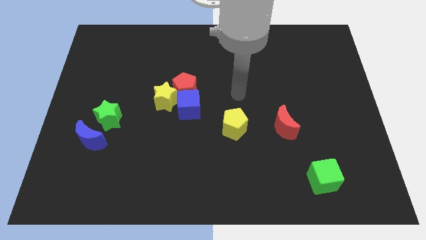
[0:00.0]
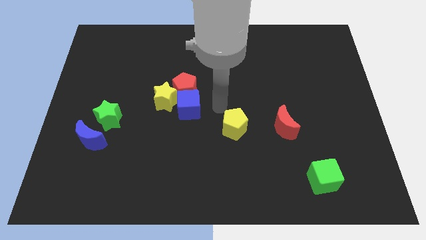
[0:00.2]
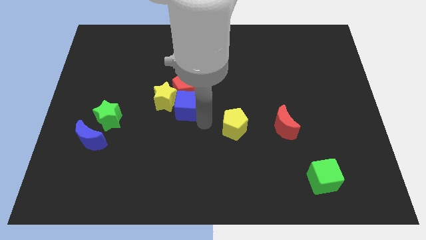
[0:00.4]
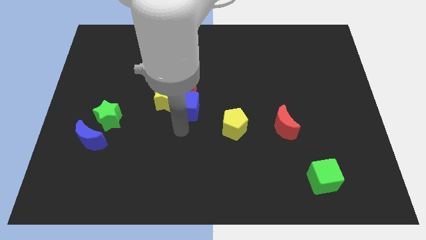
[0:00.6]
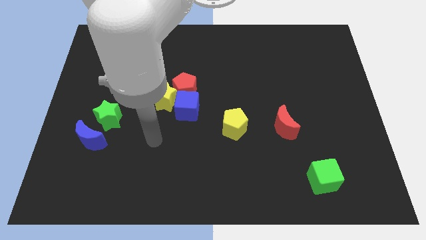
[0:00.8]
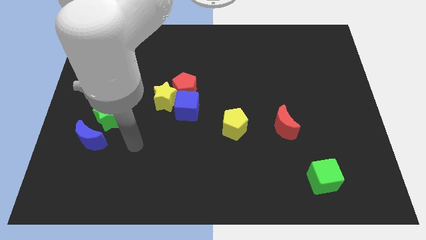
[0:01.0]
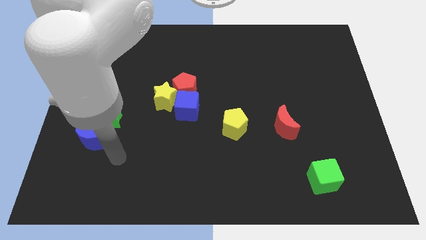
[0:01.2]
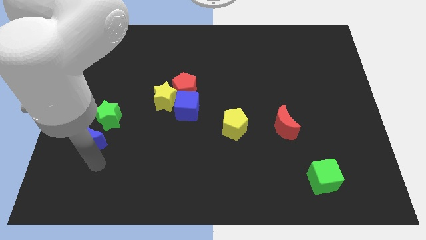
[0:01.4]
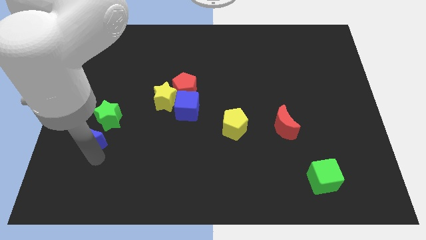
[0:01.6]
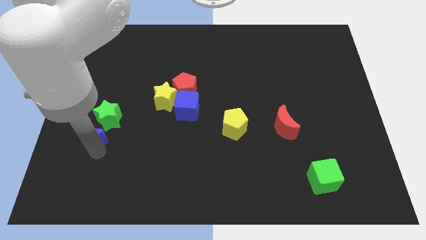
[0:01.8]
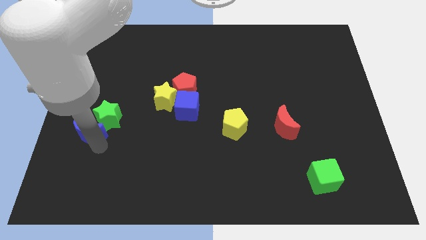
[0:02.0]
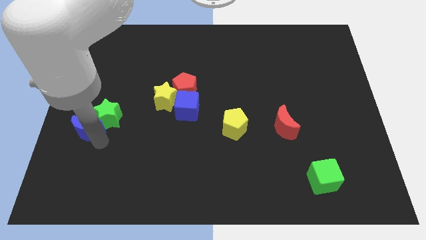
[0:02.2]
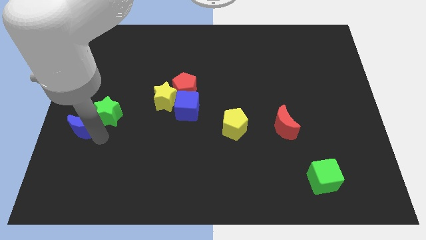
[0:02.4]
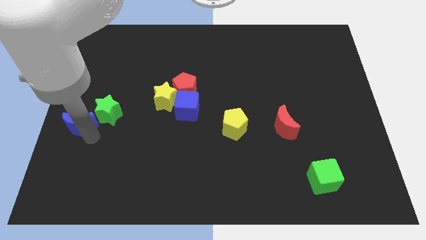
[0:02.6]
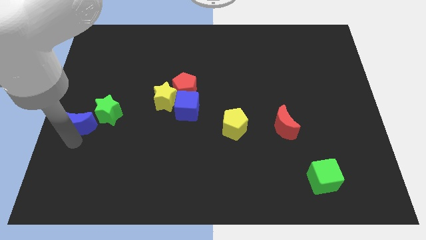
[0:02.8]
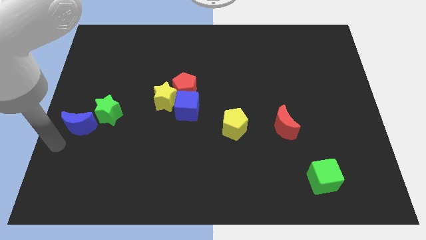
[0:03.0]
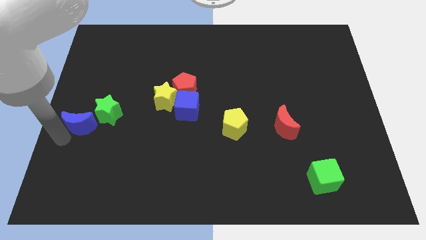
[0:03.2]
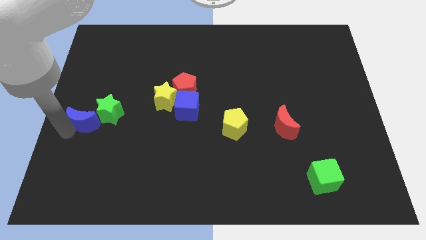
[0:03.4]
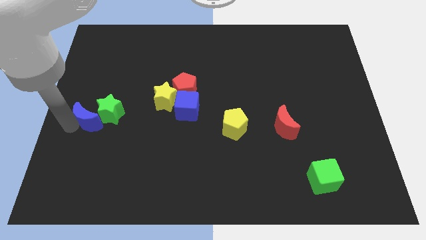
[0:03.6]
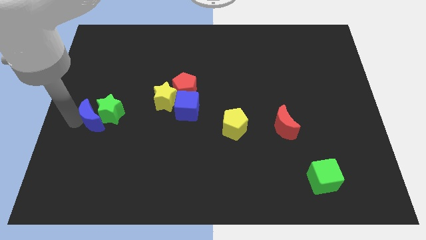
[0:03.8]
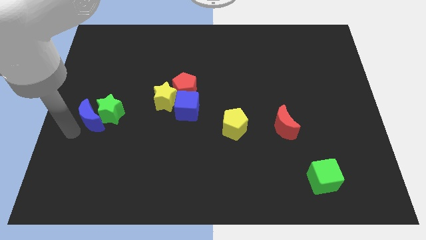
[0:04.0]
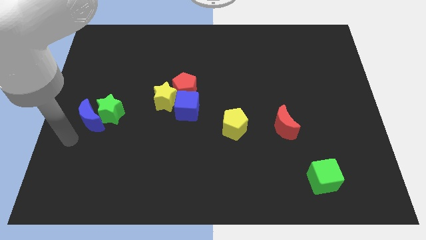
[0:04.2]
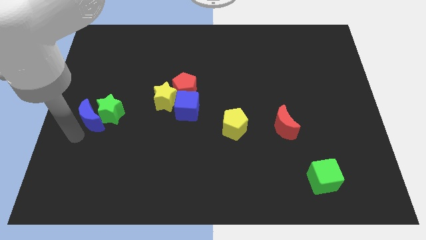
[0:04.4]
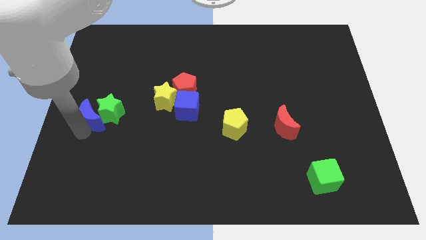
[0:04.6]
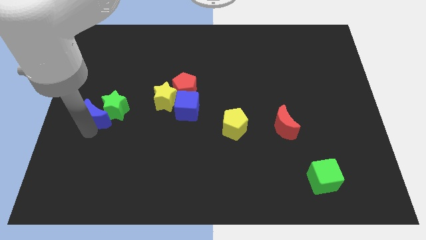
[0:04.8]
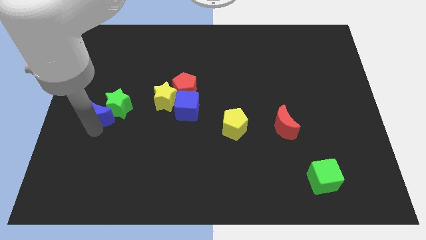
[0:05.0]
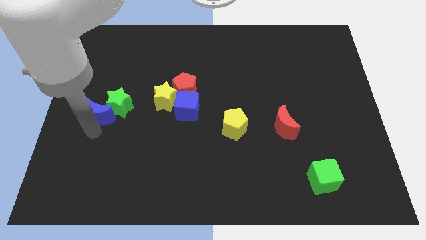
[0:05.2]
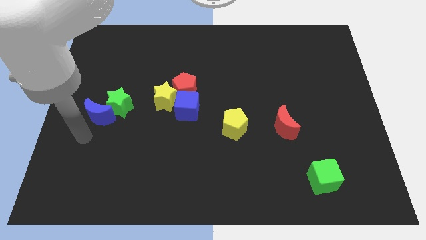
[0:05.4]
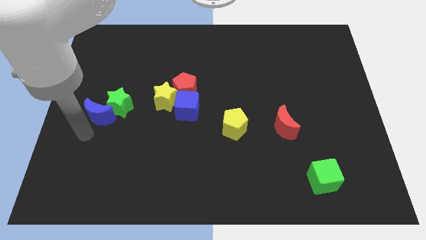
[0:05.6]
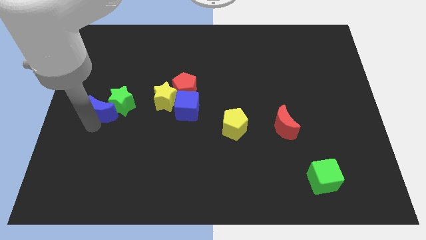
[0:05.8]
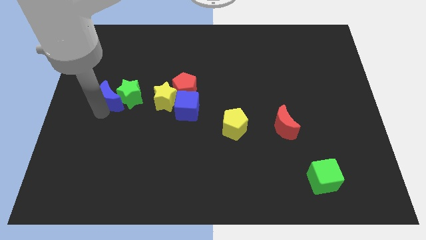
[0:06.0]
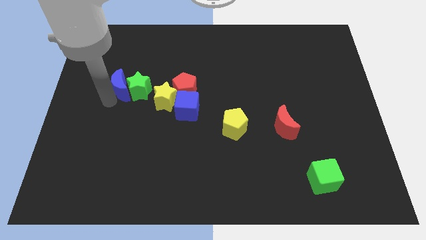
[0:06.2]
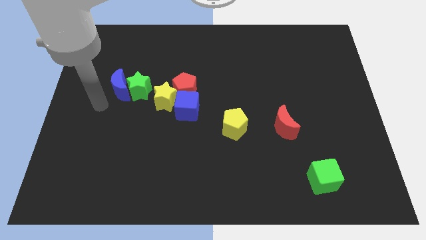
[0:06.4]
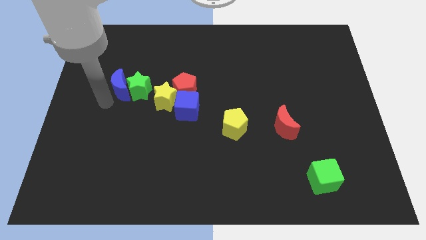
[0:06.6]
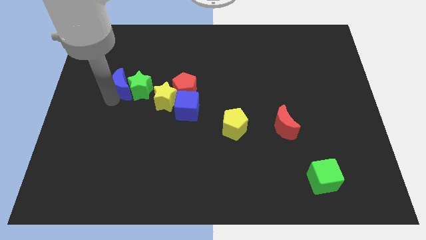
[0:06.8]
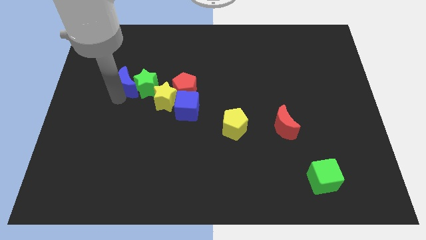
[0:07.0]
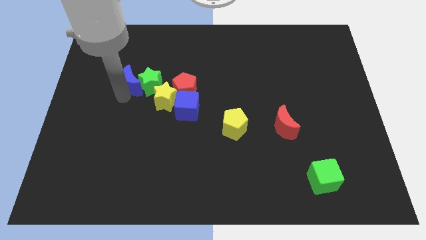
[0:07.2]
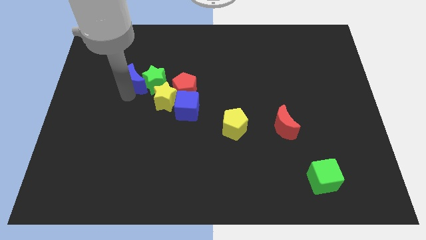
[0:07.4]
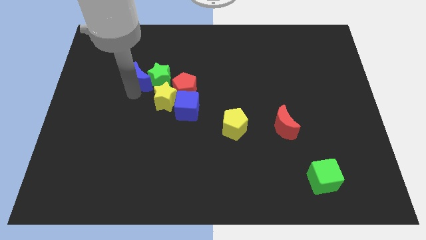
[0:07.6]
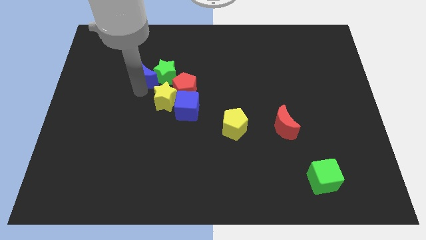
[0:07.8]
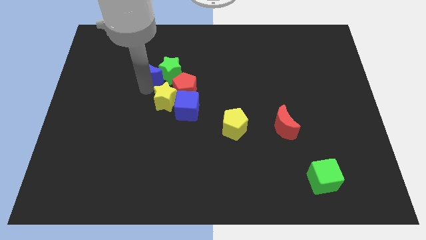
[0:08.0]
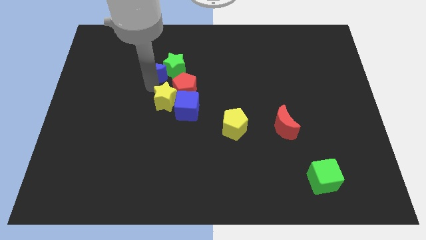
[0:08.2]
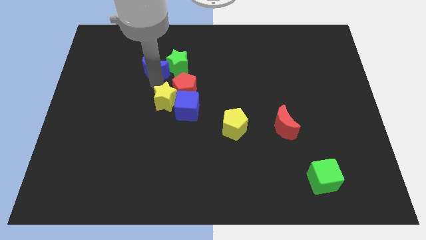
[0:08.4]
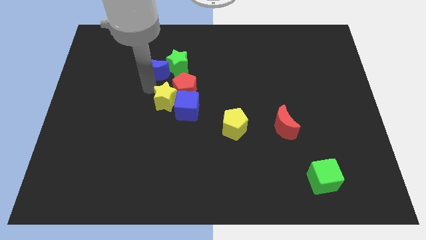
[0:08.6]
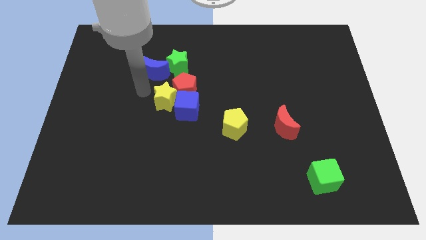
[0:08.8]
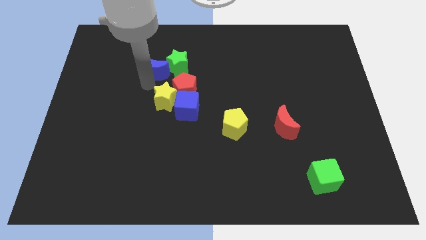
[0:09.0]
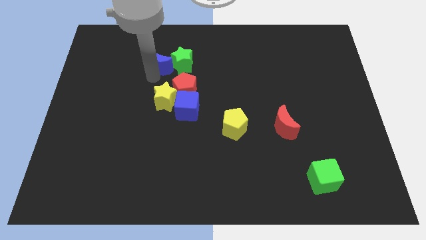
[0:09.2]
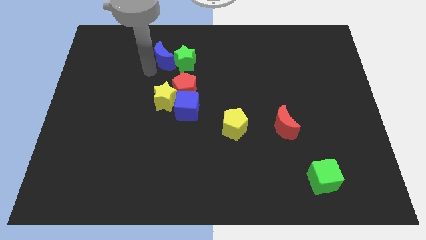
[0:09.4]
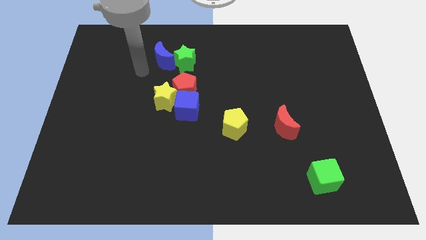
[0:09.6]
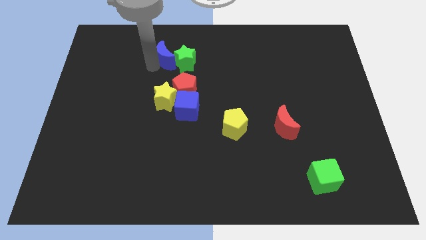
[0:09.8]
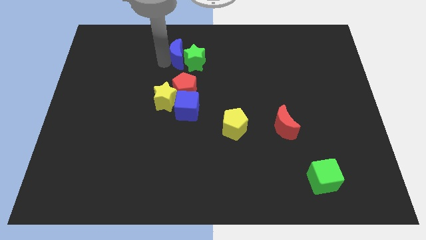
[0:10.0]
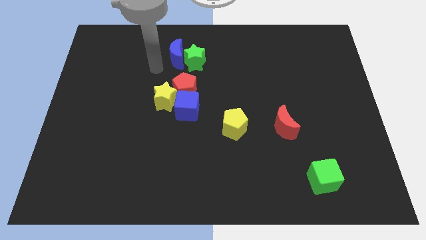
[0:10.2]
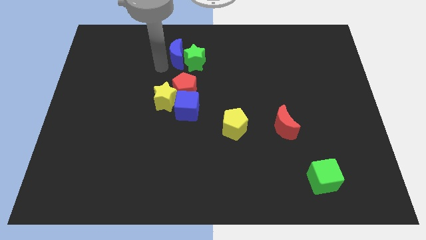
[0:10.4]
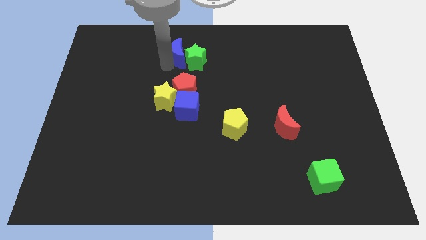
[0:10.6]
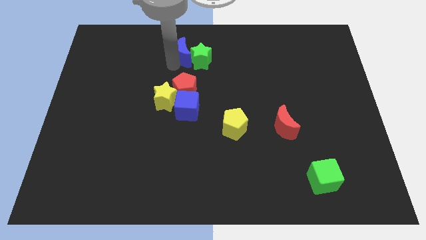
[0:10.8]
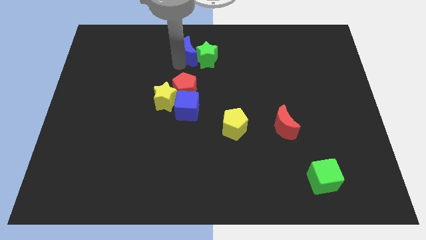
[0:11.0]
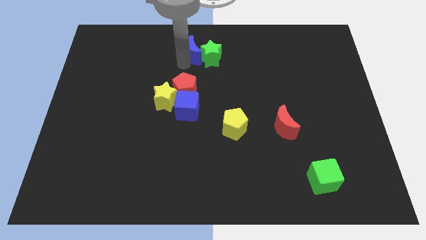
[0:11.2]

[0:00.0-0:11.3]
put the blue moon to the towards your base
